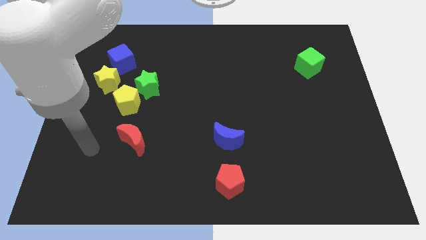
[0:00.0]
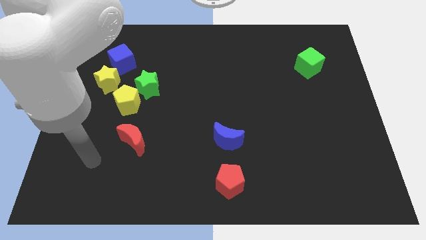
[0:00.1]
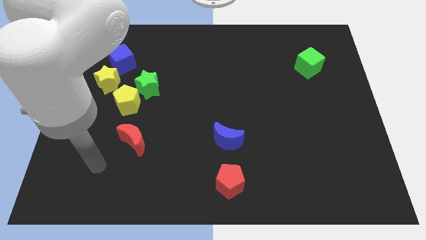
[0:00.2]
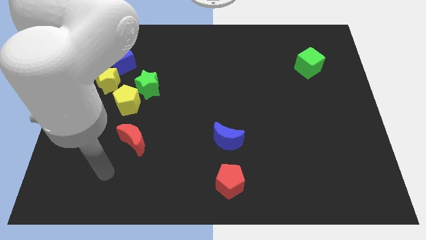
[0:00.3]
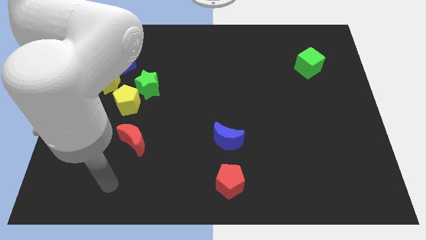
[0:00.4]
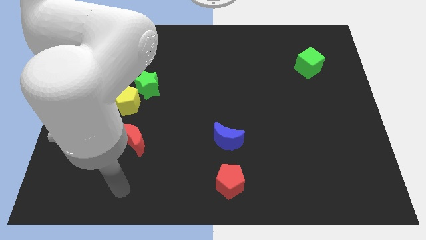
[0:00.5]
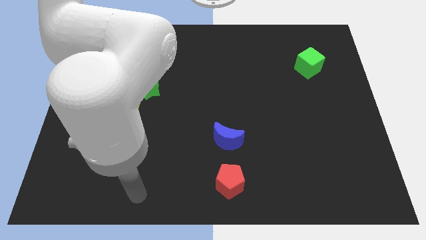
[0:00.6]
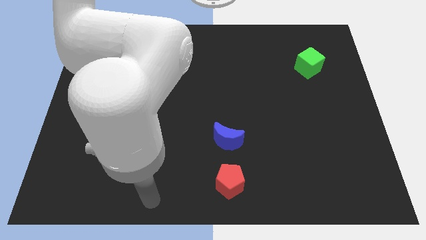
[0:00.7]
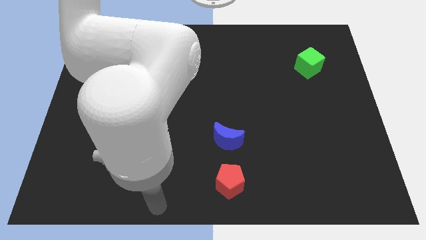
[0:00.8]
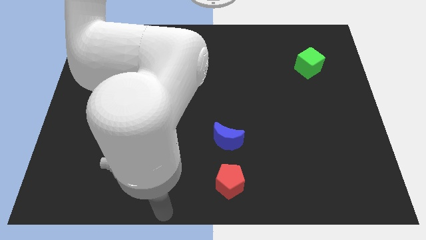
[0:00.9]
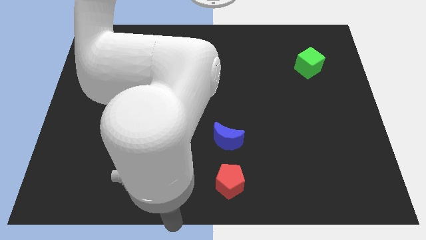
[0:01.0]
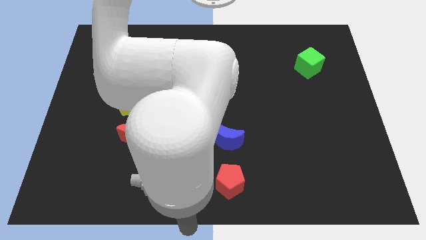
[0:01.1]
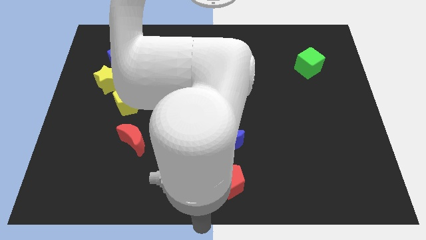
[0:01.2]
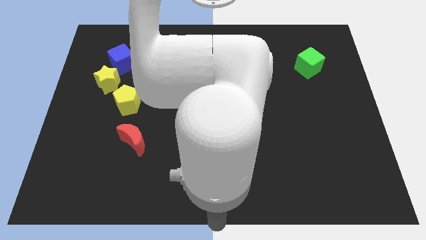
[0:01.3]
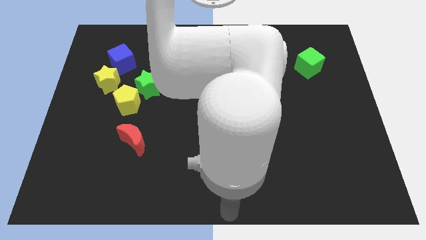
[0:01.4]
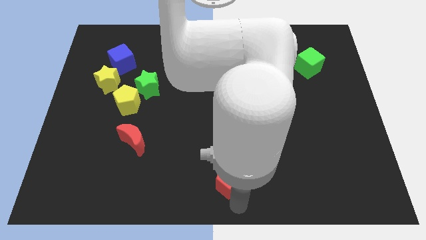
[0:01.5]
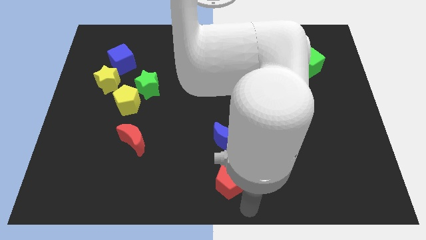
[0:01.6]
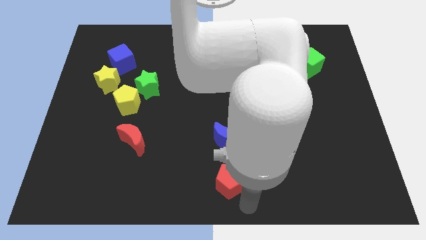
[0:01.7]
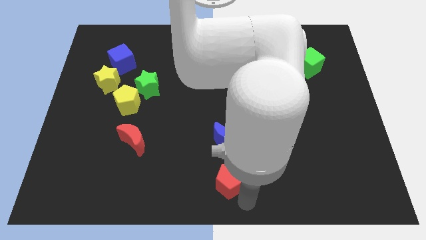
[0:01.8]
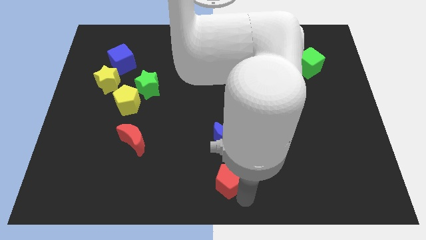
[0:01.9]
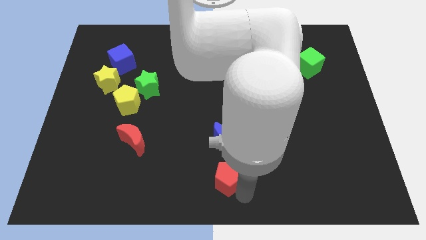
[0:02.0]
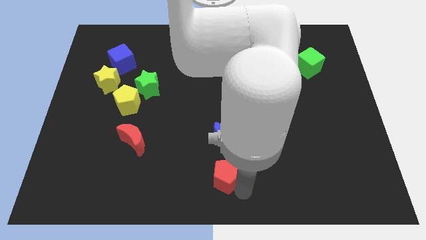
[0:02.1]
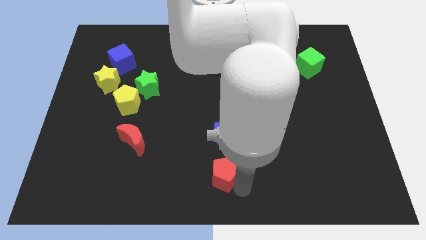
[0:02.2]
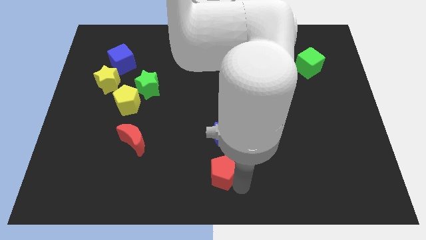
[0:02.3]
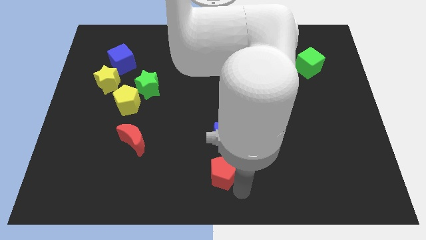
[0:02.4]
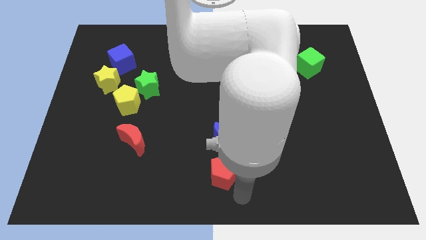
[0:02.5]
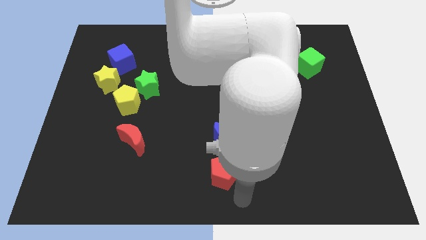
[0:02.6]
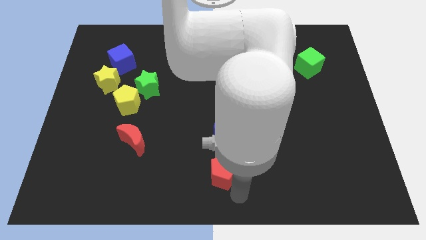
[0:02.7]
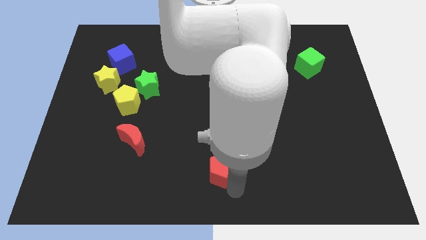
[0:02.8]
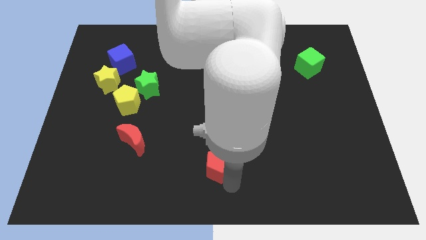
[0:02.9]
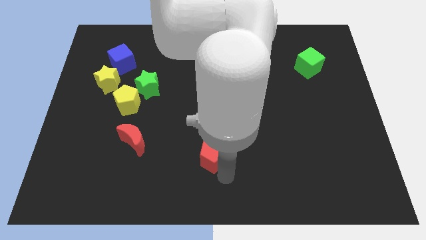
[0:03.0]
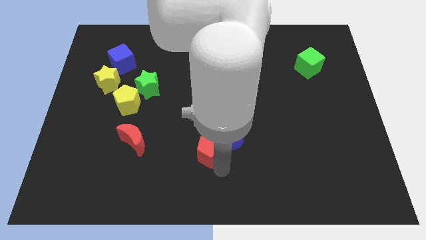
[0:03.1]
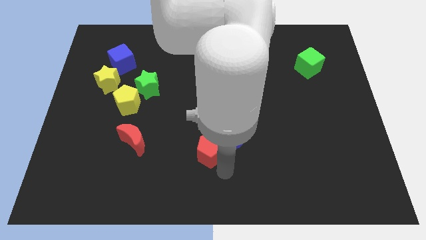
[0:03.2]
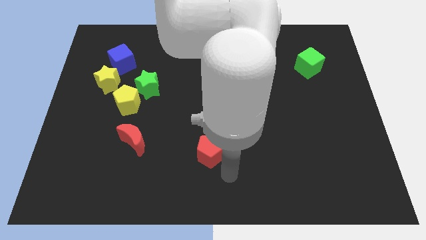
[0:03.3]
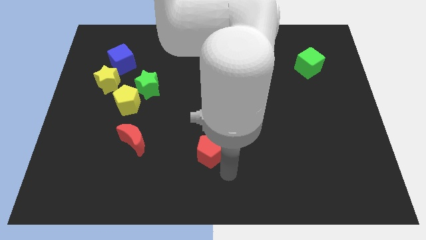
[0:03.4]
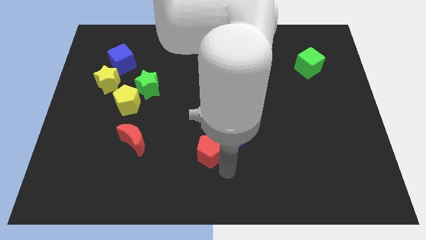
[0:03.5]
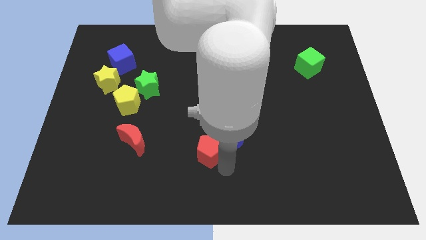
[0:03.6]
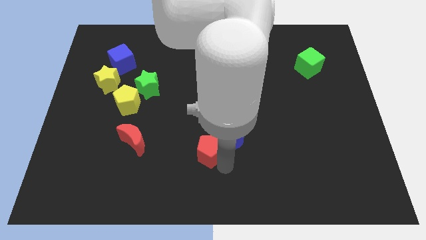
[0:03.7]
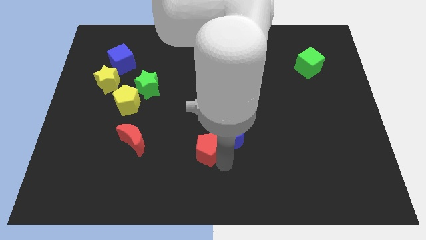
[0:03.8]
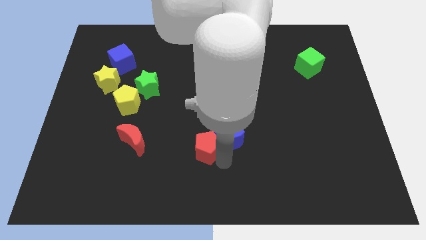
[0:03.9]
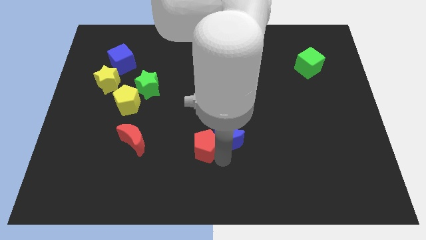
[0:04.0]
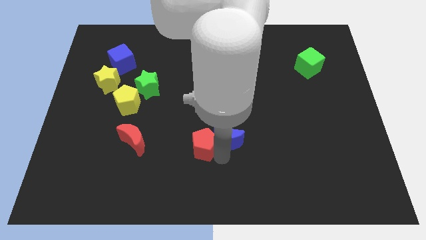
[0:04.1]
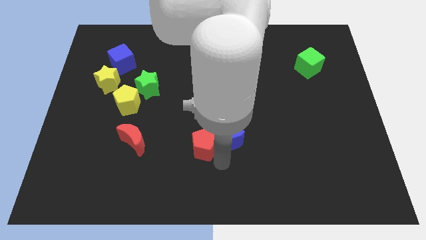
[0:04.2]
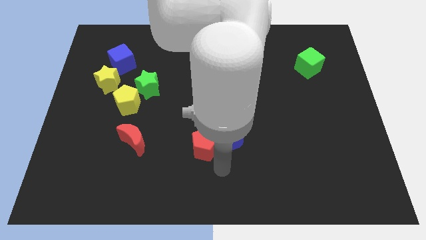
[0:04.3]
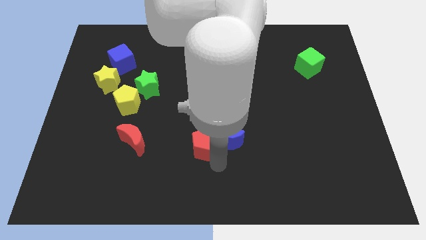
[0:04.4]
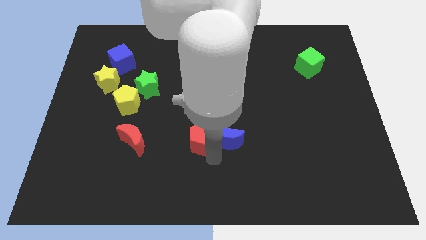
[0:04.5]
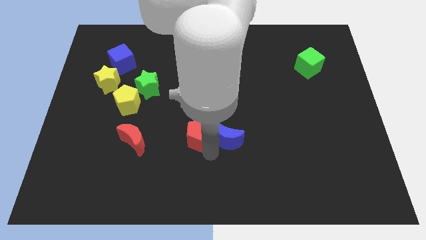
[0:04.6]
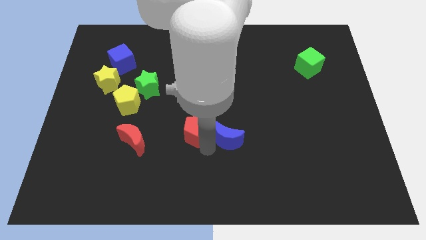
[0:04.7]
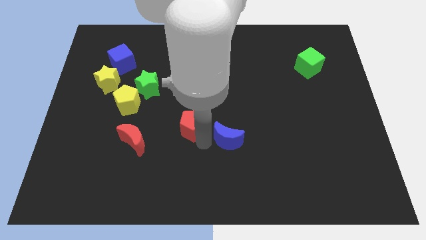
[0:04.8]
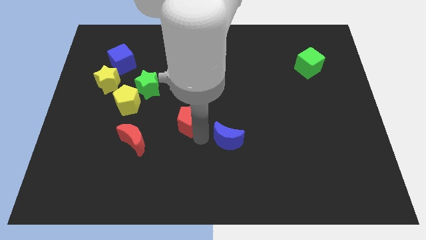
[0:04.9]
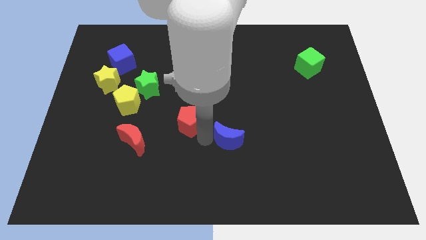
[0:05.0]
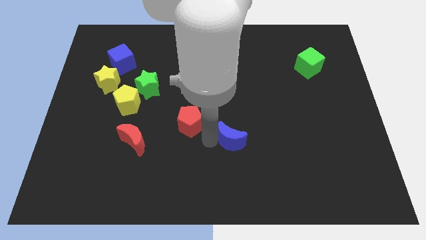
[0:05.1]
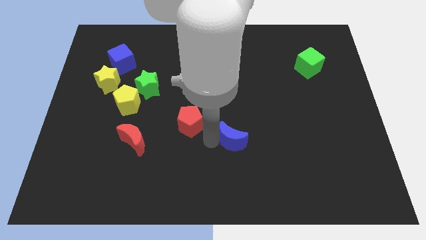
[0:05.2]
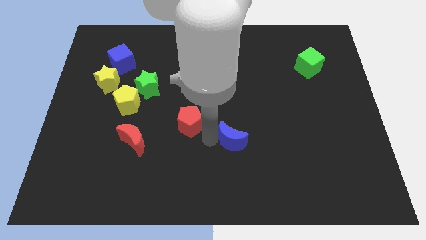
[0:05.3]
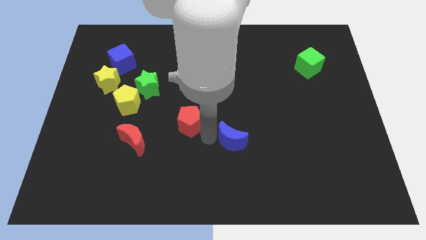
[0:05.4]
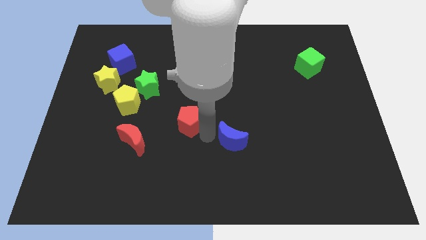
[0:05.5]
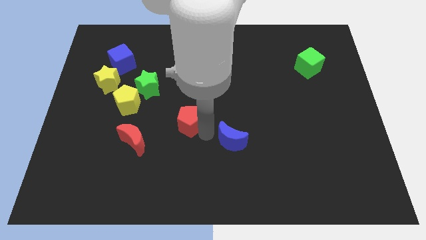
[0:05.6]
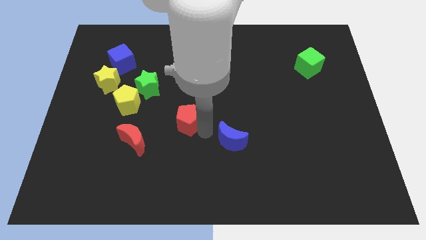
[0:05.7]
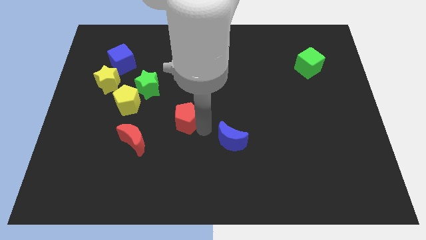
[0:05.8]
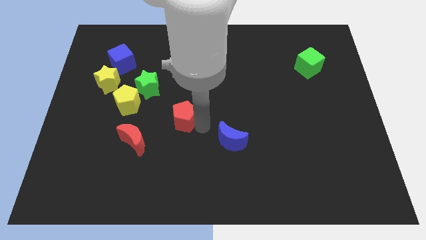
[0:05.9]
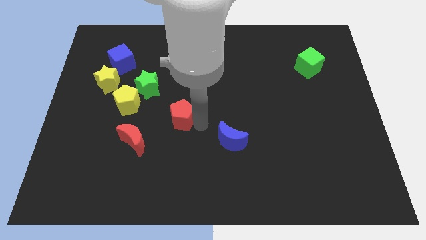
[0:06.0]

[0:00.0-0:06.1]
move the red pentagon to the right of the yellow pentagon

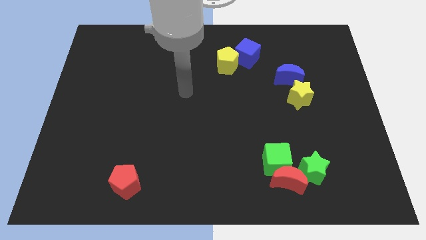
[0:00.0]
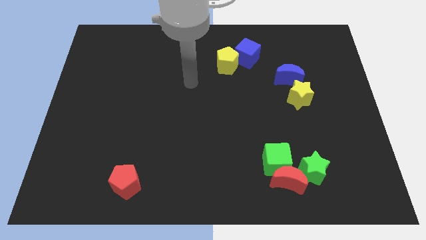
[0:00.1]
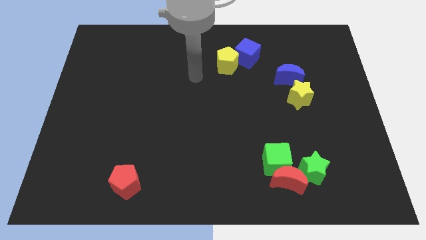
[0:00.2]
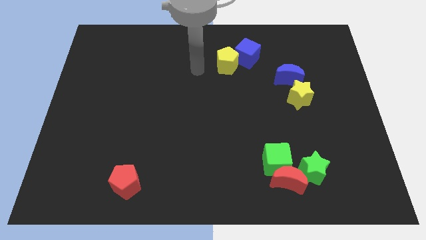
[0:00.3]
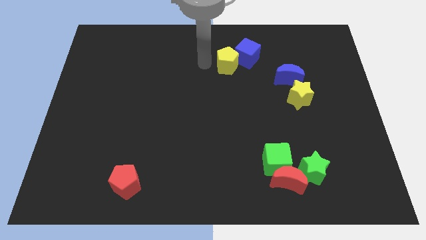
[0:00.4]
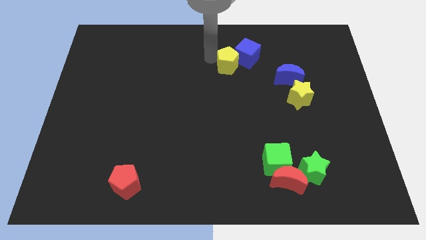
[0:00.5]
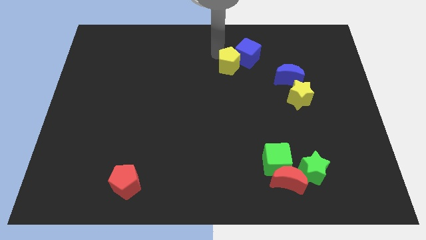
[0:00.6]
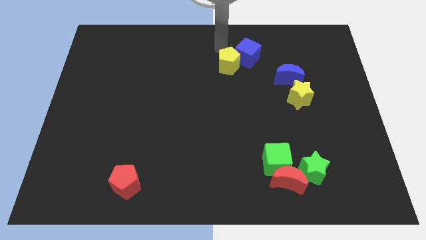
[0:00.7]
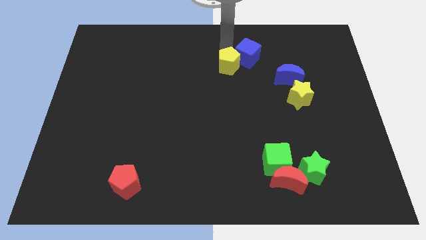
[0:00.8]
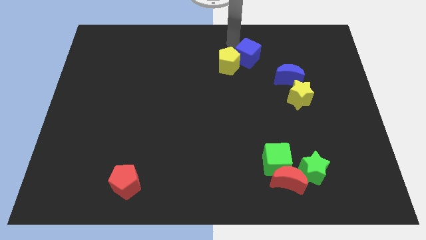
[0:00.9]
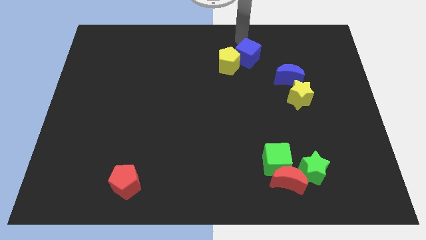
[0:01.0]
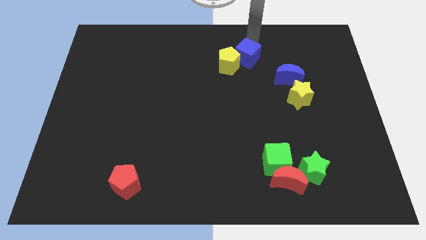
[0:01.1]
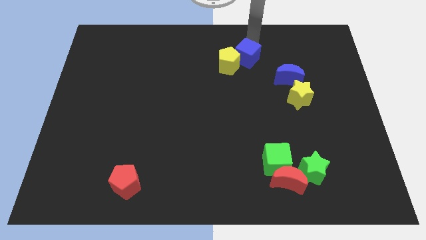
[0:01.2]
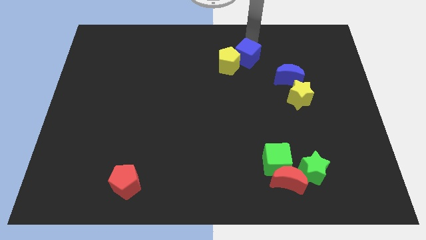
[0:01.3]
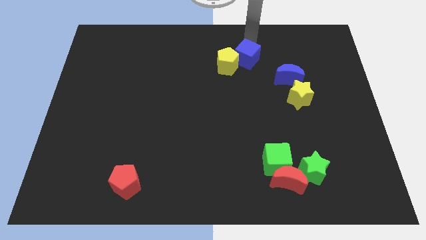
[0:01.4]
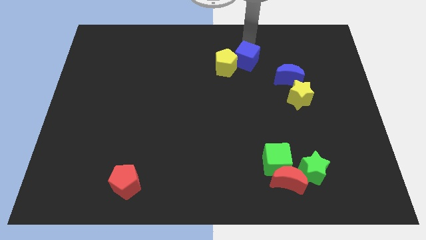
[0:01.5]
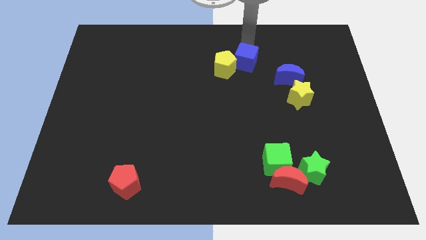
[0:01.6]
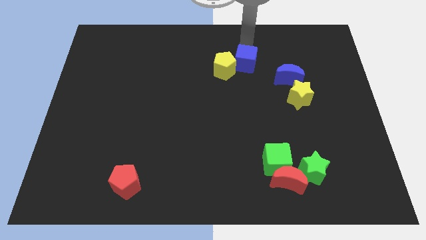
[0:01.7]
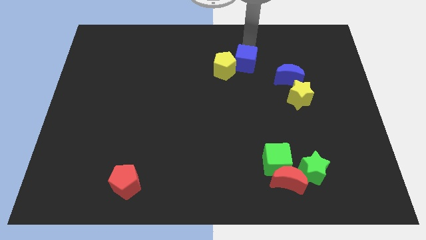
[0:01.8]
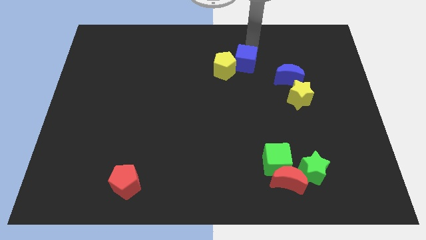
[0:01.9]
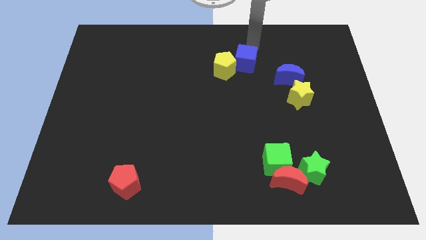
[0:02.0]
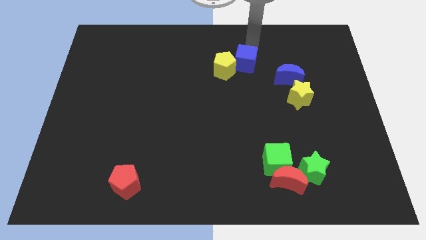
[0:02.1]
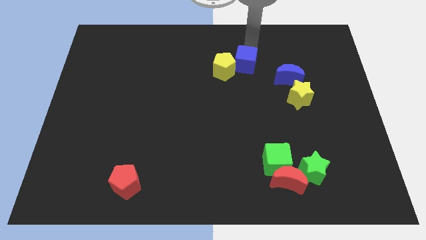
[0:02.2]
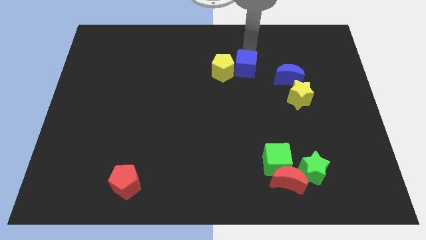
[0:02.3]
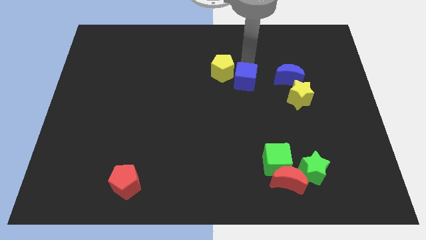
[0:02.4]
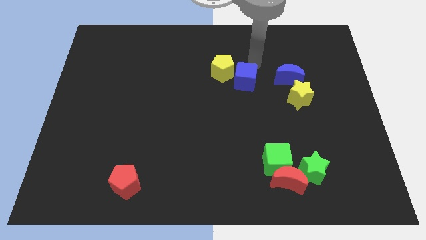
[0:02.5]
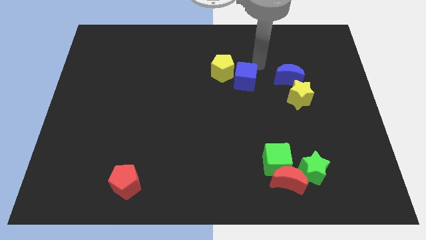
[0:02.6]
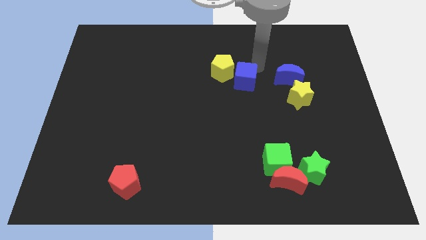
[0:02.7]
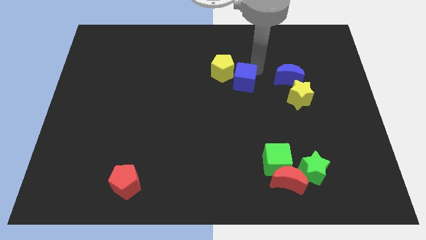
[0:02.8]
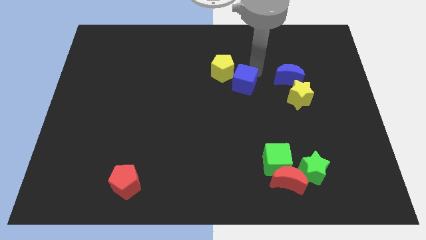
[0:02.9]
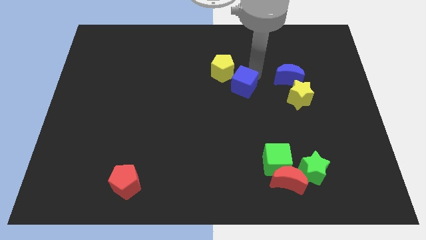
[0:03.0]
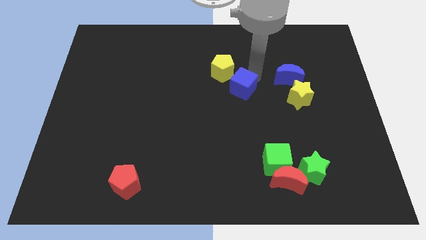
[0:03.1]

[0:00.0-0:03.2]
move the blue cube below the yellow pentagon
